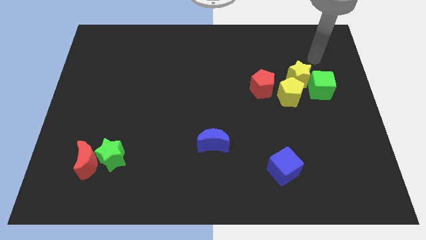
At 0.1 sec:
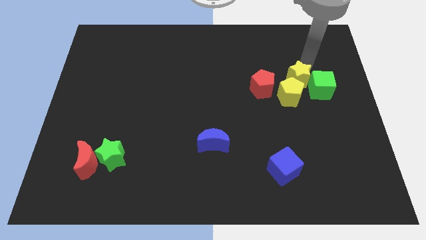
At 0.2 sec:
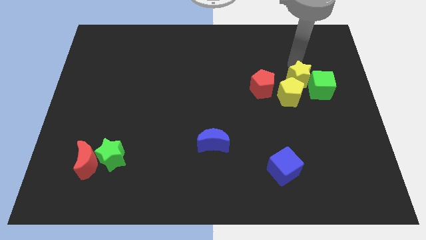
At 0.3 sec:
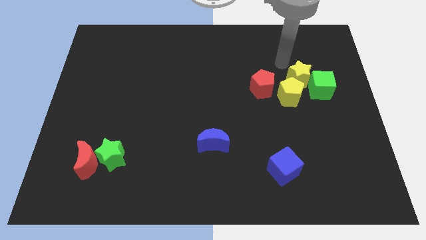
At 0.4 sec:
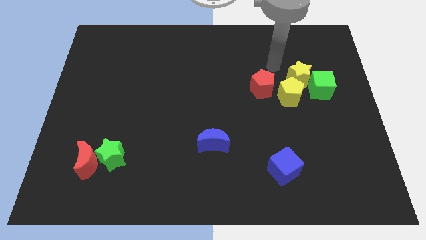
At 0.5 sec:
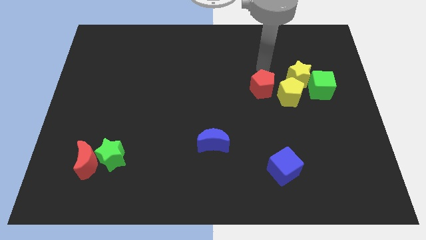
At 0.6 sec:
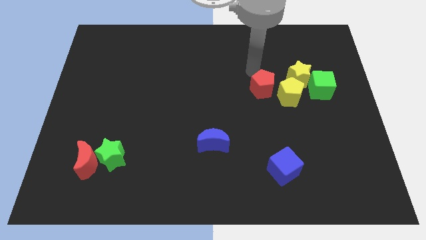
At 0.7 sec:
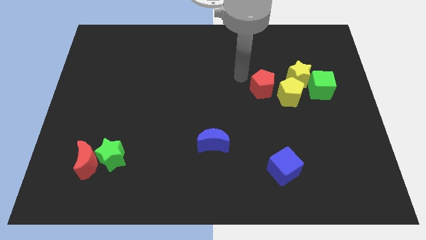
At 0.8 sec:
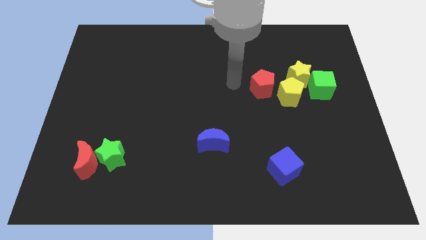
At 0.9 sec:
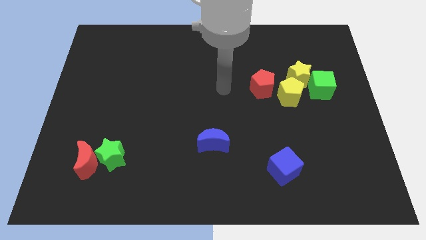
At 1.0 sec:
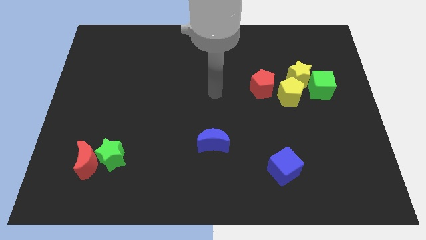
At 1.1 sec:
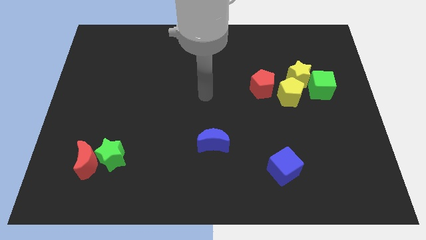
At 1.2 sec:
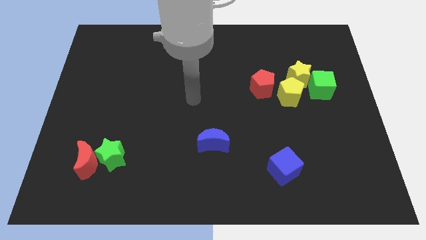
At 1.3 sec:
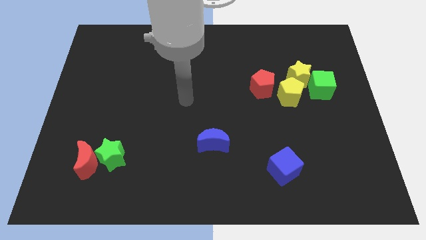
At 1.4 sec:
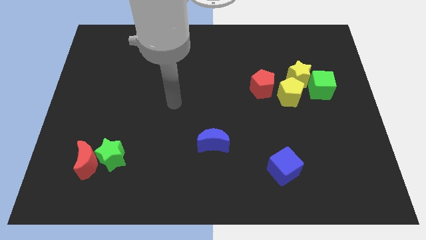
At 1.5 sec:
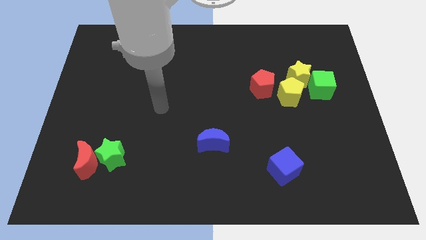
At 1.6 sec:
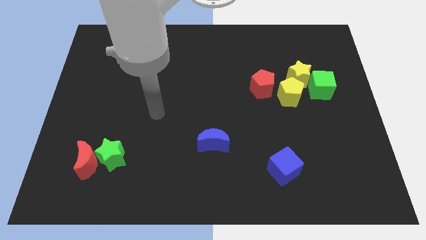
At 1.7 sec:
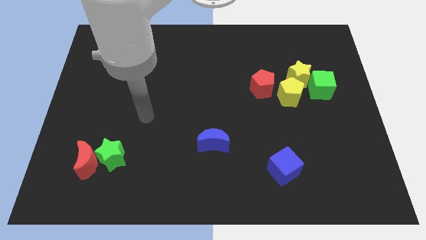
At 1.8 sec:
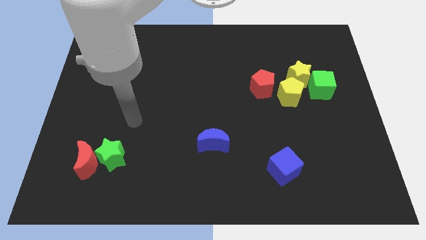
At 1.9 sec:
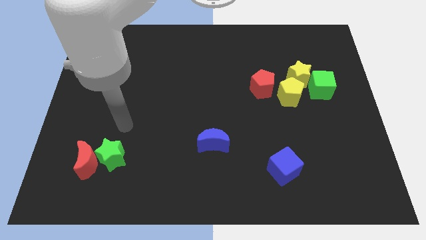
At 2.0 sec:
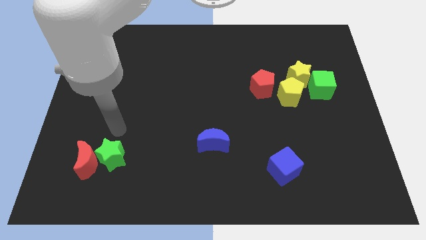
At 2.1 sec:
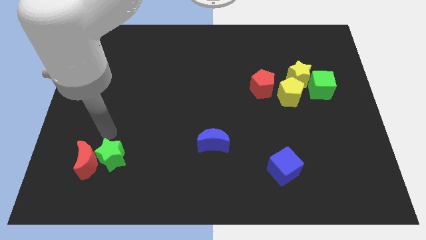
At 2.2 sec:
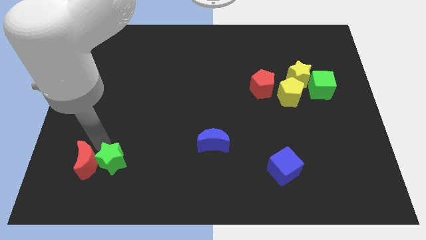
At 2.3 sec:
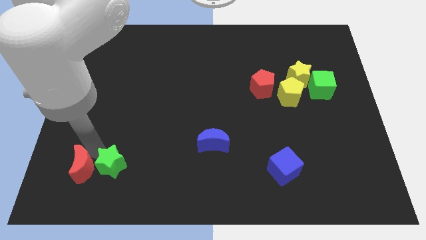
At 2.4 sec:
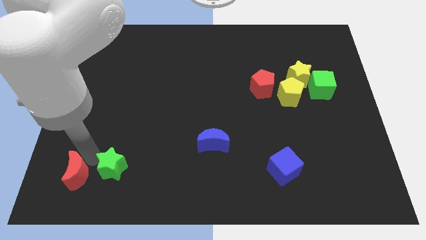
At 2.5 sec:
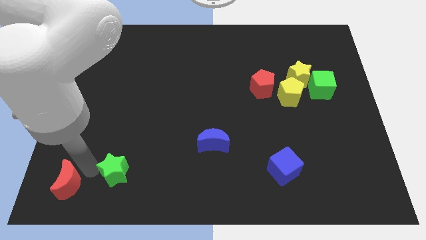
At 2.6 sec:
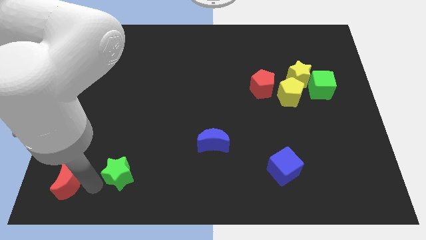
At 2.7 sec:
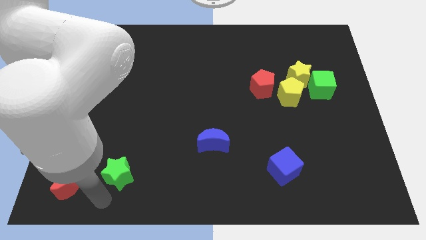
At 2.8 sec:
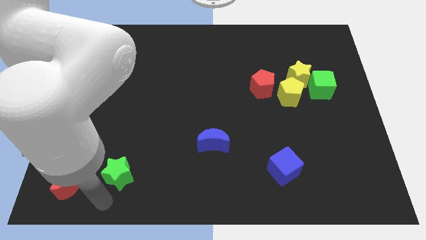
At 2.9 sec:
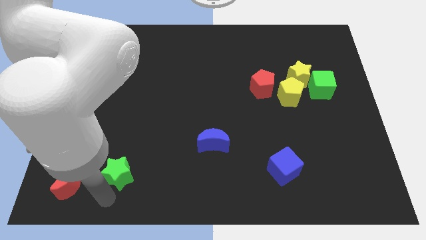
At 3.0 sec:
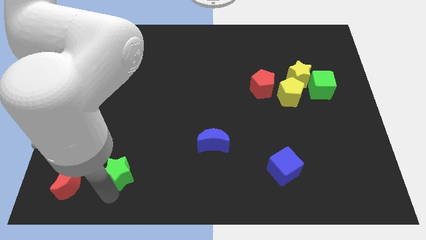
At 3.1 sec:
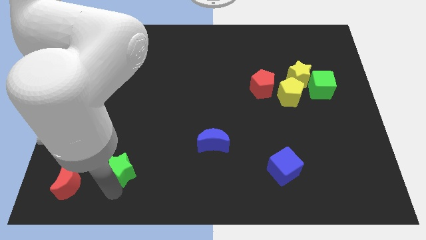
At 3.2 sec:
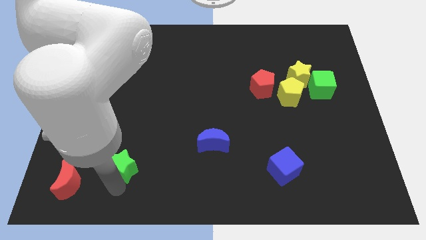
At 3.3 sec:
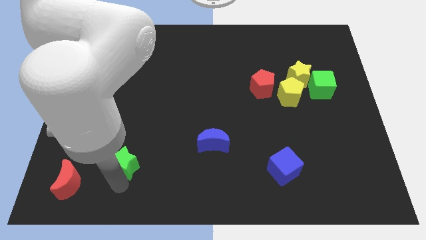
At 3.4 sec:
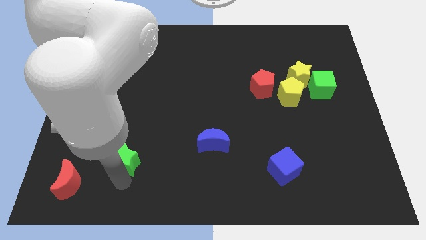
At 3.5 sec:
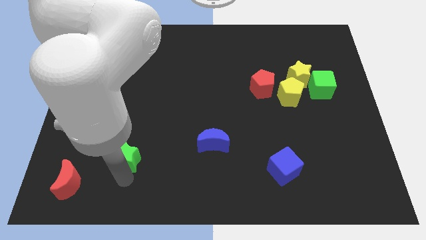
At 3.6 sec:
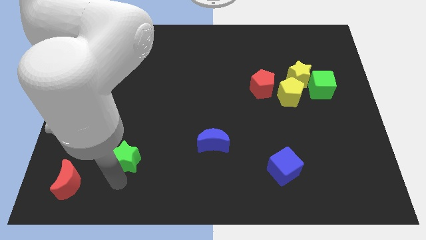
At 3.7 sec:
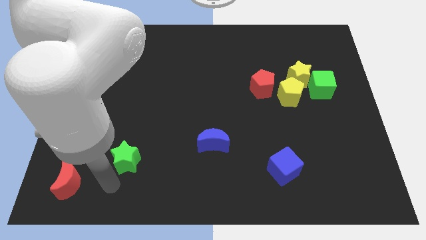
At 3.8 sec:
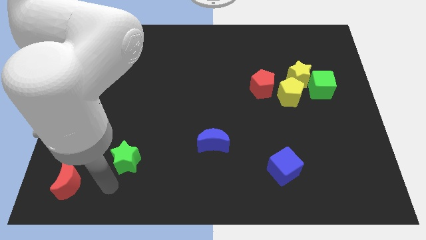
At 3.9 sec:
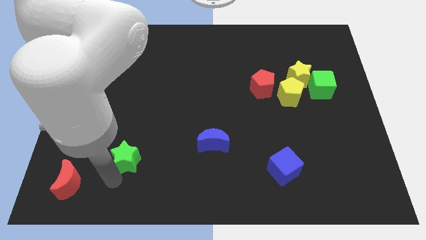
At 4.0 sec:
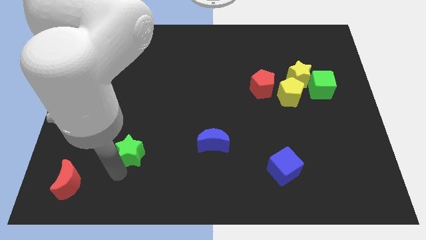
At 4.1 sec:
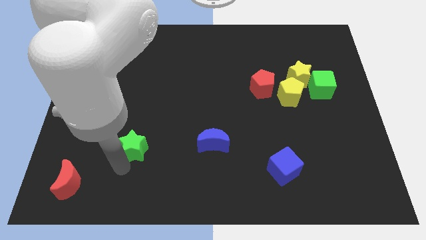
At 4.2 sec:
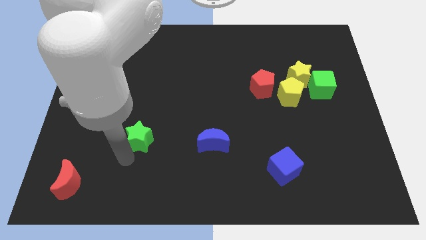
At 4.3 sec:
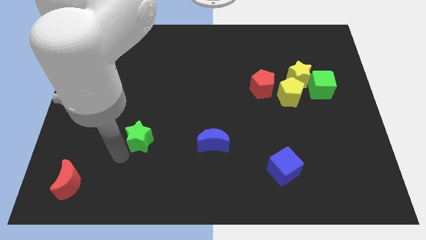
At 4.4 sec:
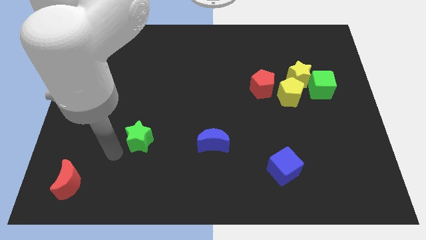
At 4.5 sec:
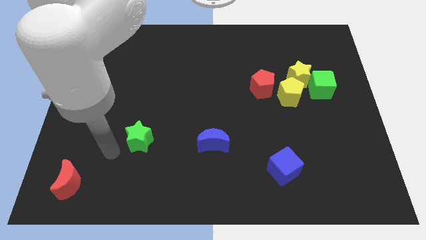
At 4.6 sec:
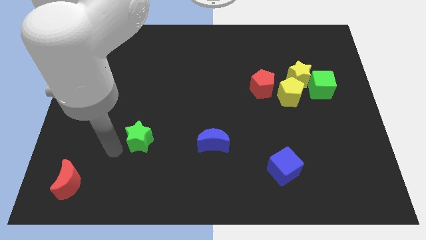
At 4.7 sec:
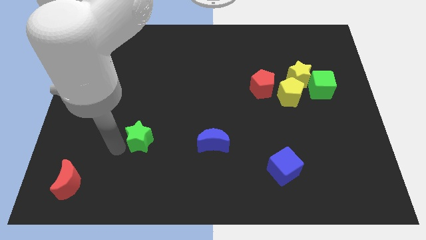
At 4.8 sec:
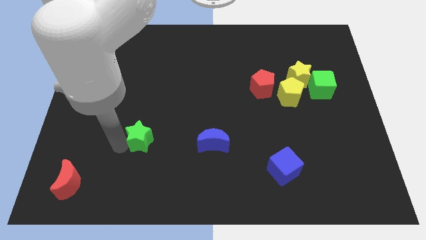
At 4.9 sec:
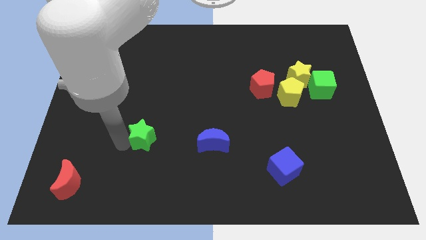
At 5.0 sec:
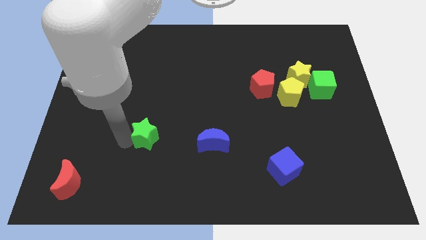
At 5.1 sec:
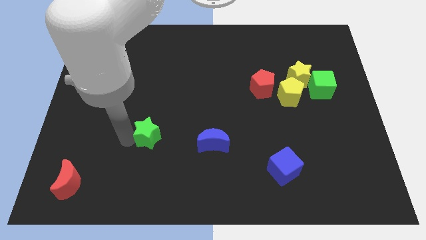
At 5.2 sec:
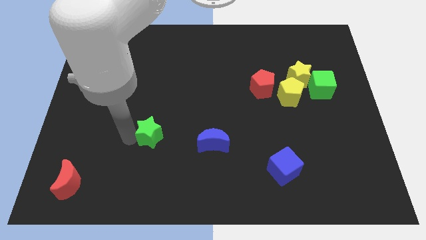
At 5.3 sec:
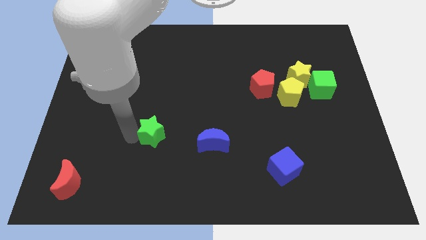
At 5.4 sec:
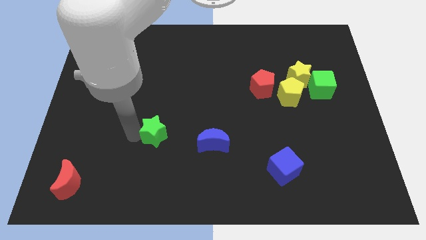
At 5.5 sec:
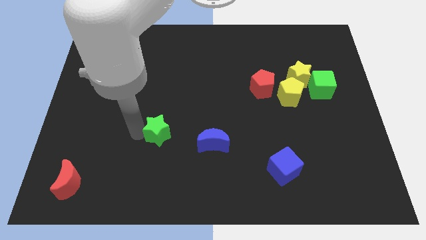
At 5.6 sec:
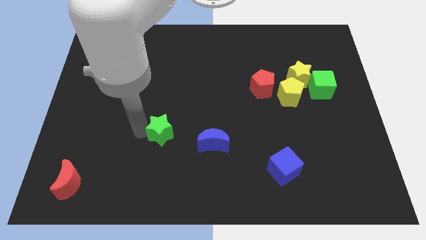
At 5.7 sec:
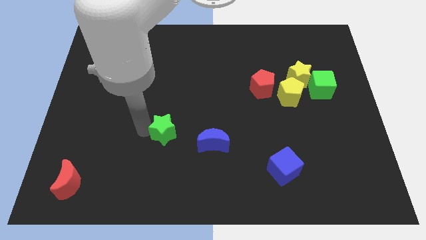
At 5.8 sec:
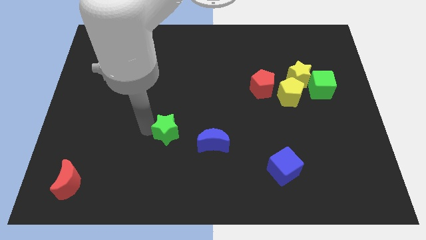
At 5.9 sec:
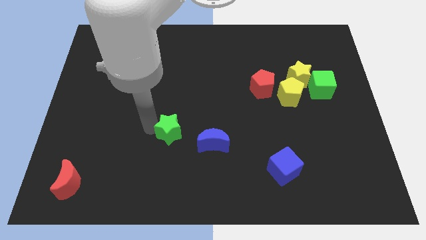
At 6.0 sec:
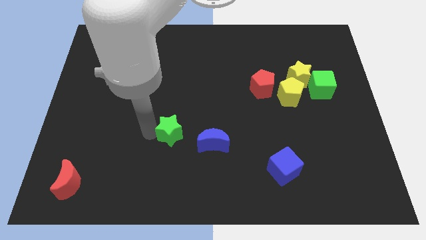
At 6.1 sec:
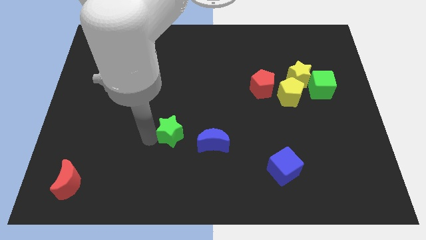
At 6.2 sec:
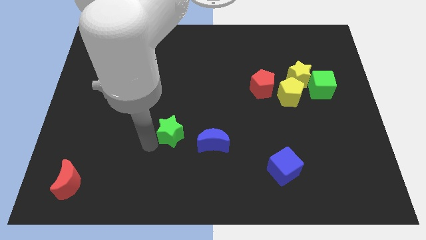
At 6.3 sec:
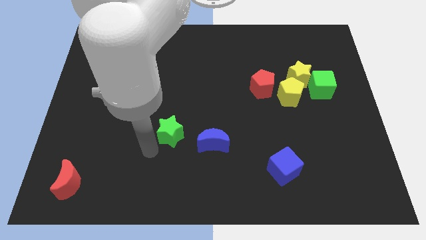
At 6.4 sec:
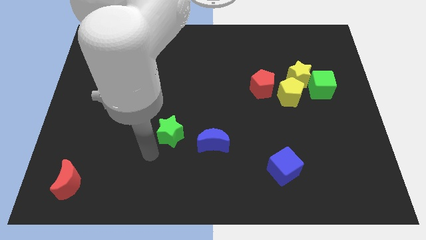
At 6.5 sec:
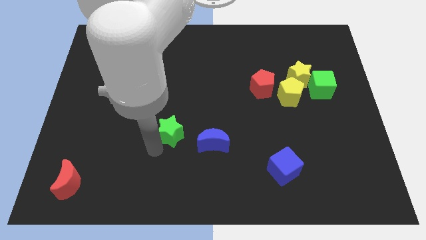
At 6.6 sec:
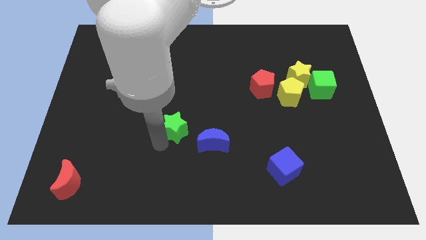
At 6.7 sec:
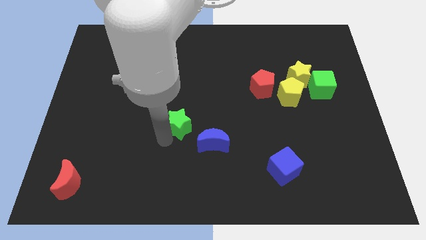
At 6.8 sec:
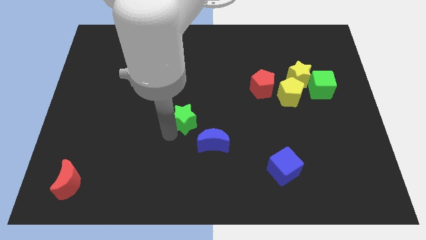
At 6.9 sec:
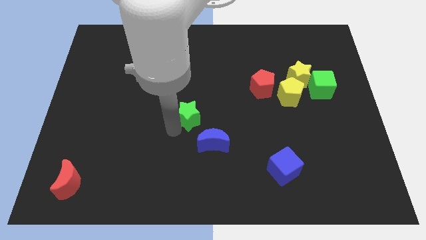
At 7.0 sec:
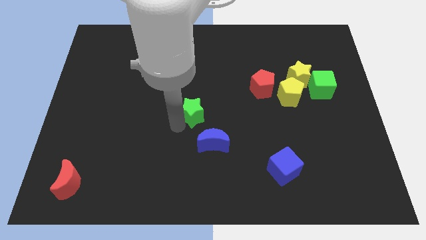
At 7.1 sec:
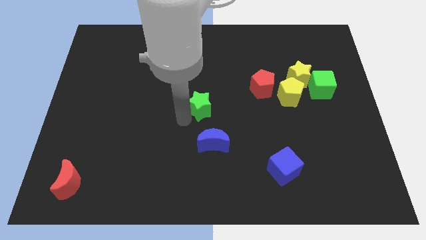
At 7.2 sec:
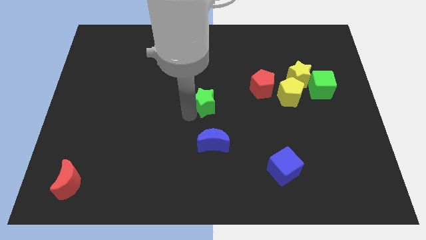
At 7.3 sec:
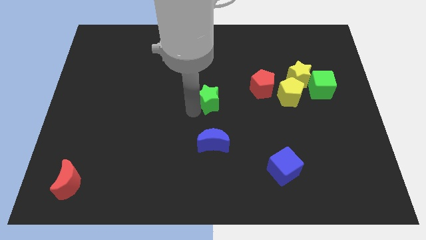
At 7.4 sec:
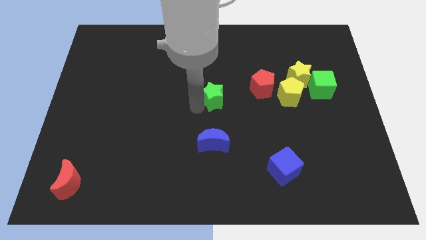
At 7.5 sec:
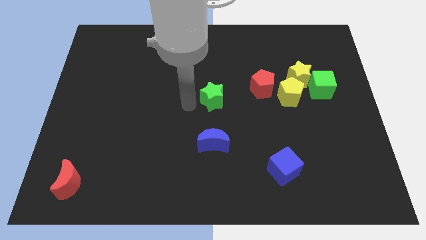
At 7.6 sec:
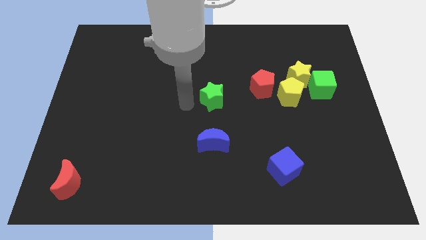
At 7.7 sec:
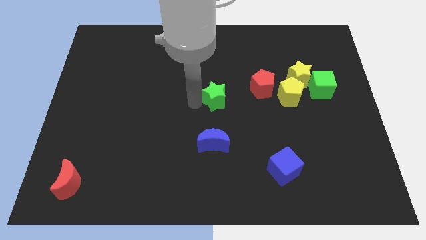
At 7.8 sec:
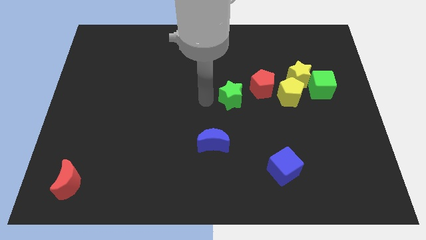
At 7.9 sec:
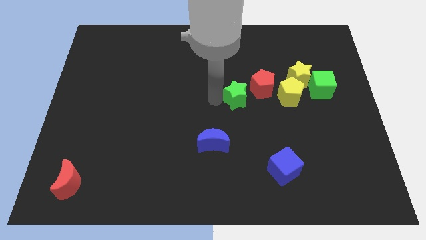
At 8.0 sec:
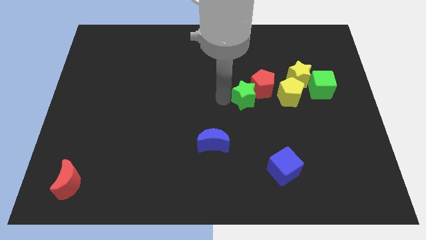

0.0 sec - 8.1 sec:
put the green star to the red pentagon
